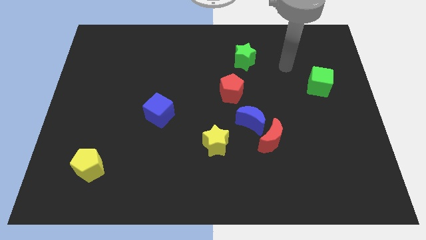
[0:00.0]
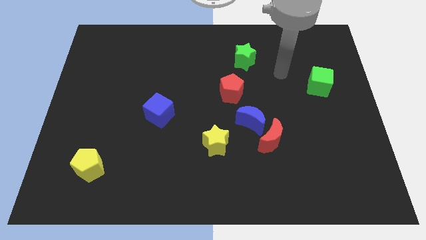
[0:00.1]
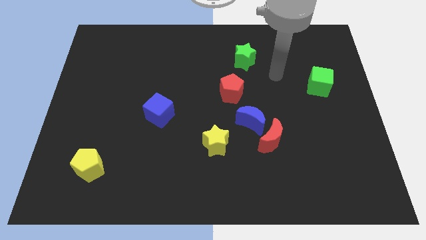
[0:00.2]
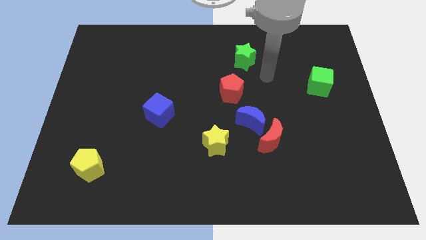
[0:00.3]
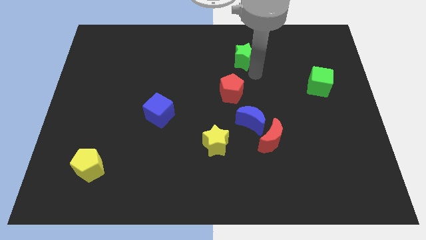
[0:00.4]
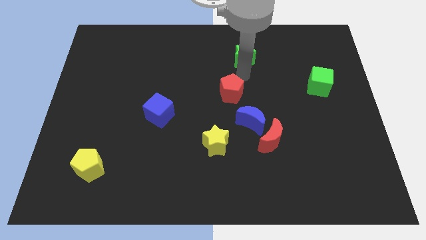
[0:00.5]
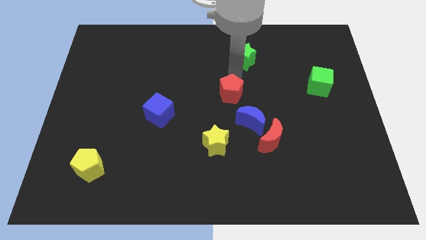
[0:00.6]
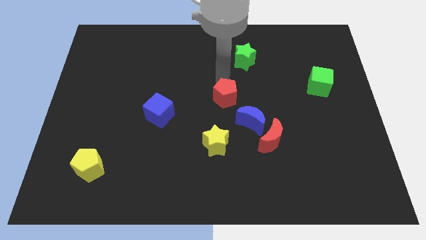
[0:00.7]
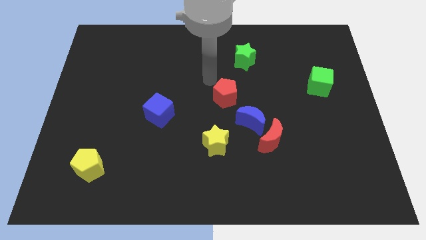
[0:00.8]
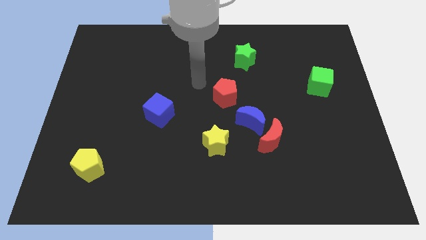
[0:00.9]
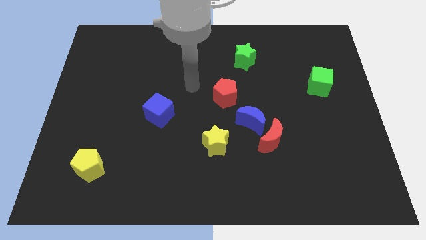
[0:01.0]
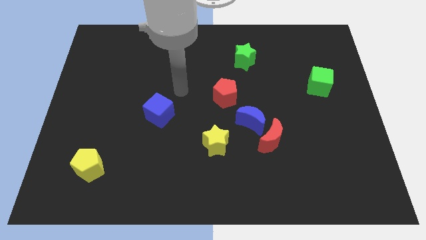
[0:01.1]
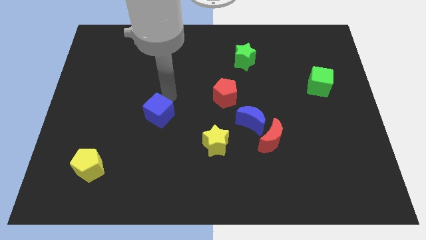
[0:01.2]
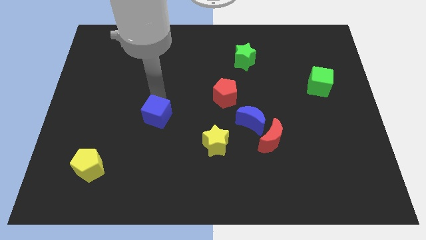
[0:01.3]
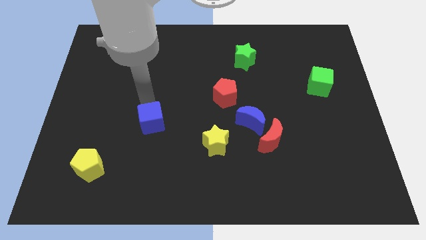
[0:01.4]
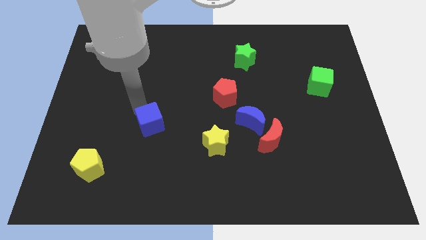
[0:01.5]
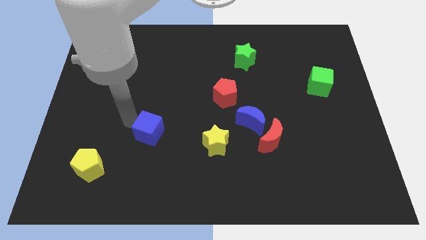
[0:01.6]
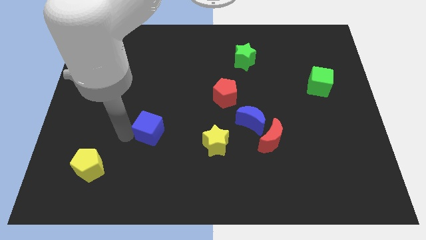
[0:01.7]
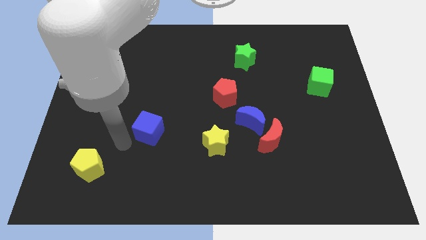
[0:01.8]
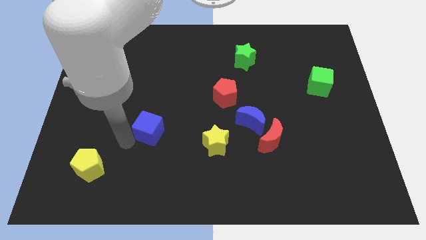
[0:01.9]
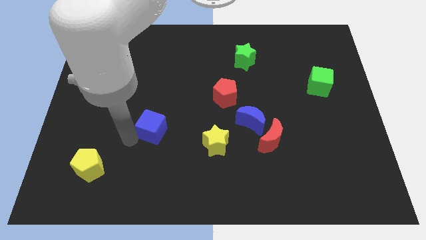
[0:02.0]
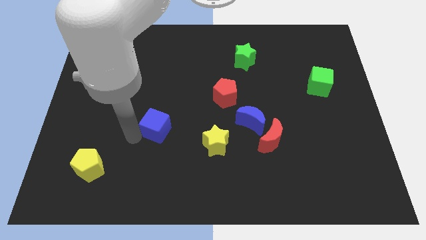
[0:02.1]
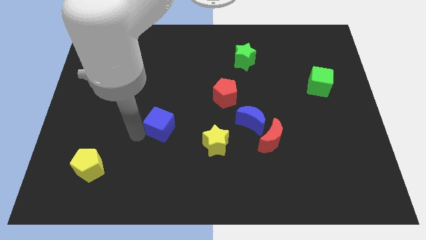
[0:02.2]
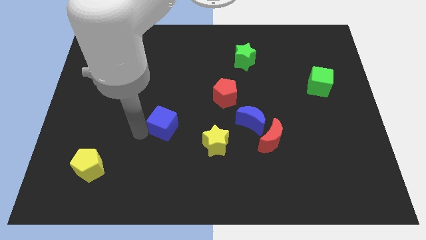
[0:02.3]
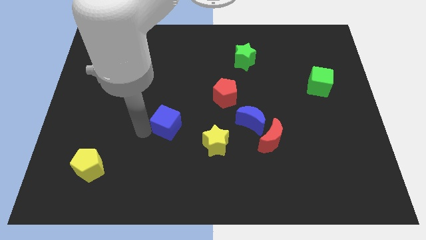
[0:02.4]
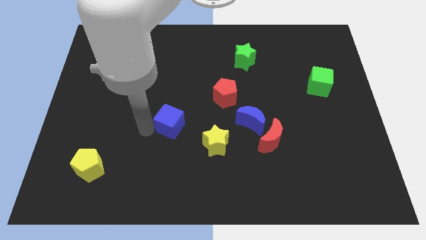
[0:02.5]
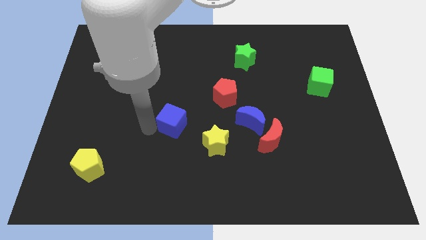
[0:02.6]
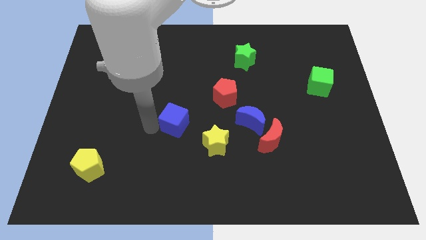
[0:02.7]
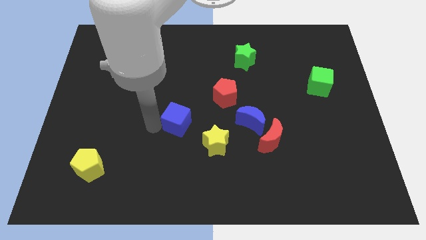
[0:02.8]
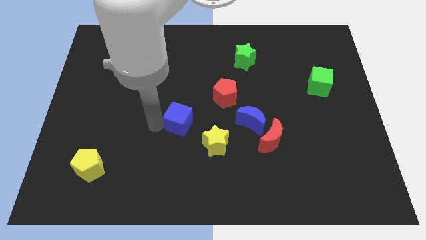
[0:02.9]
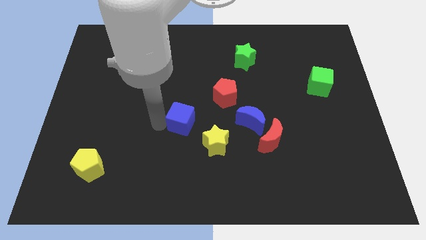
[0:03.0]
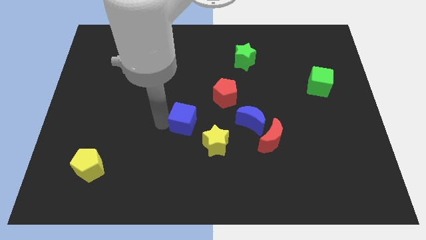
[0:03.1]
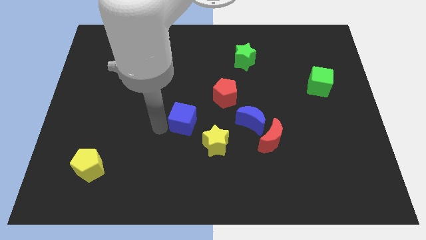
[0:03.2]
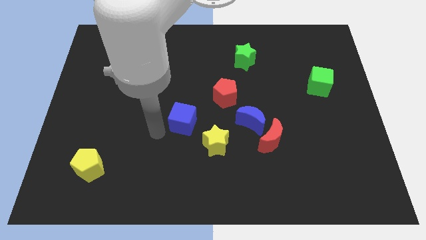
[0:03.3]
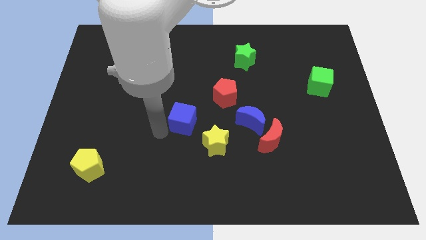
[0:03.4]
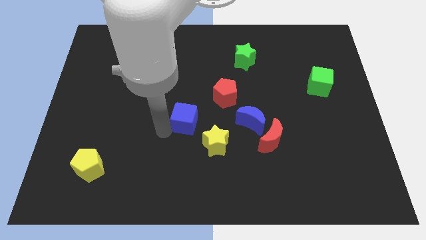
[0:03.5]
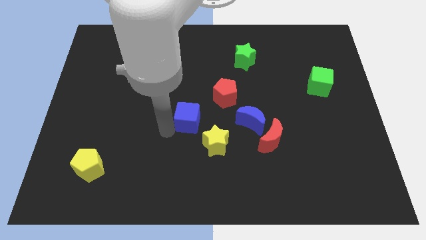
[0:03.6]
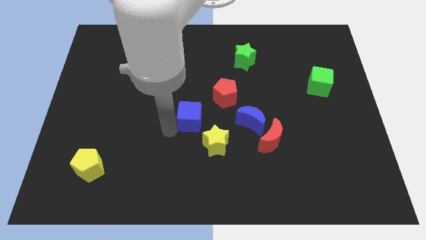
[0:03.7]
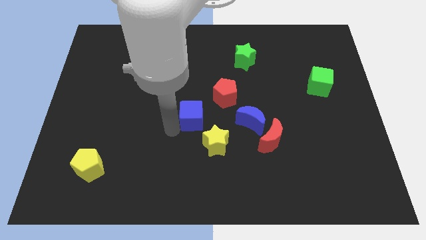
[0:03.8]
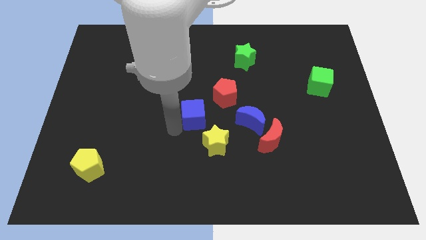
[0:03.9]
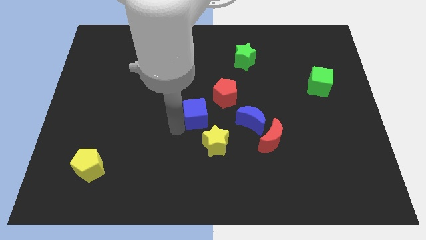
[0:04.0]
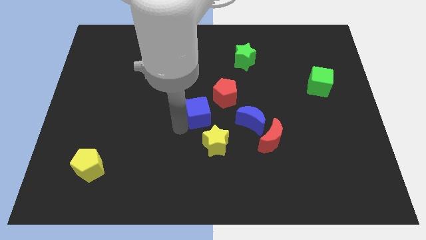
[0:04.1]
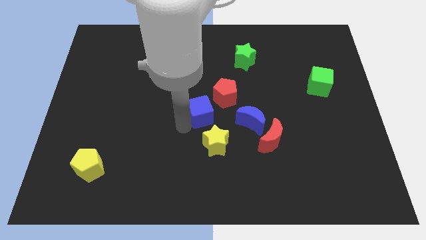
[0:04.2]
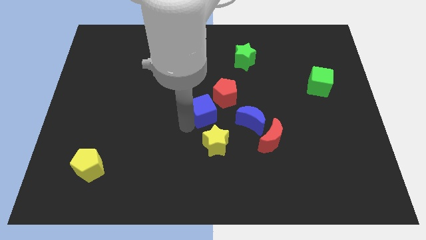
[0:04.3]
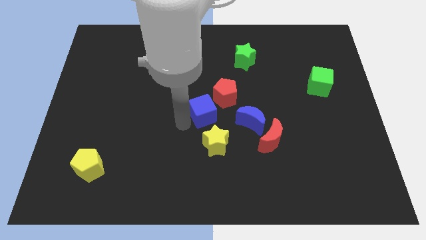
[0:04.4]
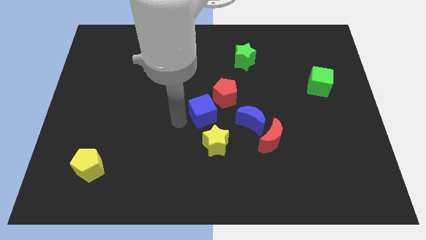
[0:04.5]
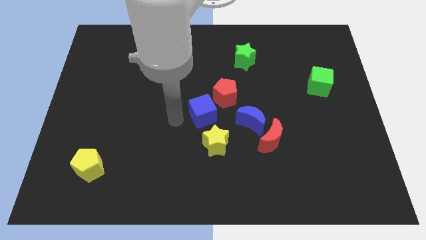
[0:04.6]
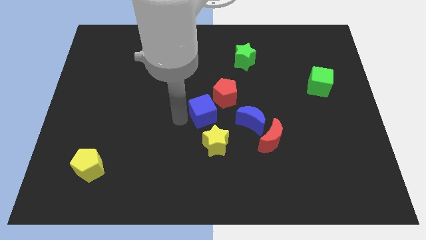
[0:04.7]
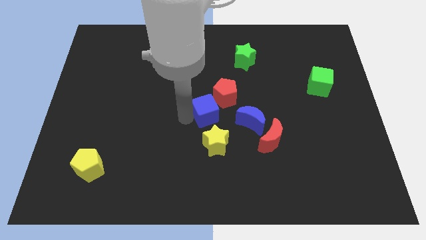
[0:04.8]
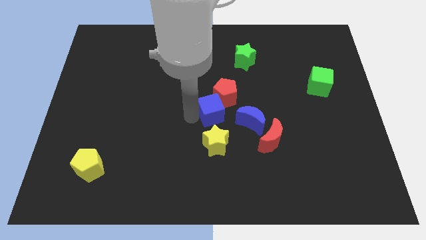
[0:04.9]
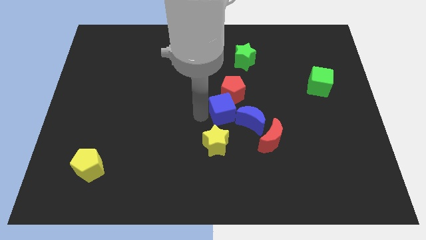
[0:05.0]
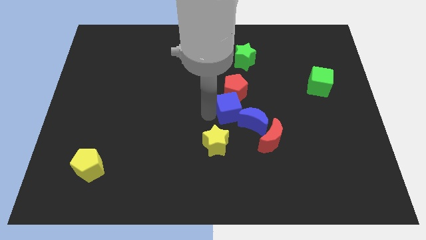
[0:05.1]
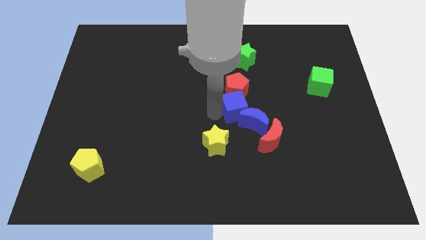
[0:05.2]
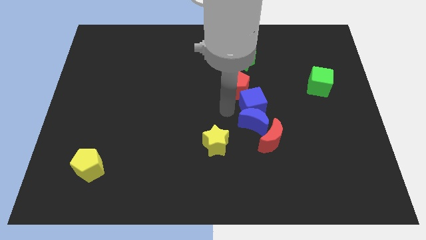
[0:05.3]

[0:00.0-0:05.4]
push the blue cube to the right

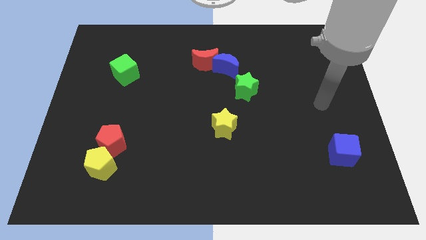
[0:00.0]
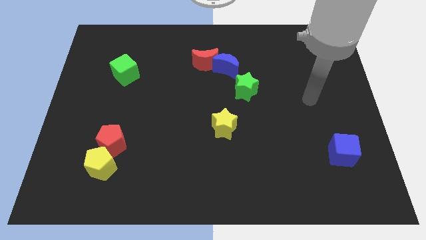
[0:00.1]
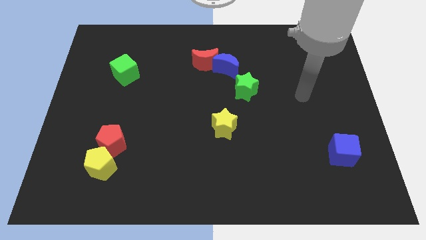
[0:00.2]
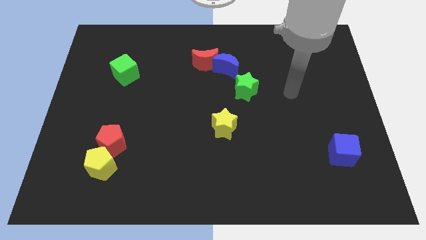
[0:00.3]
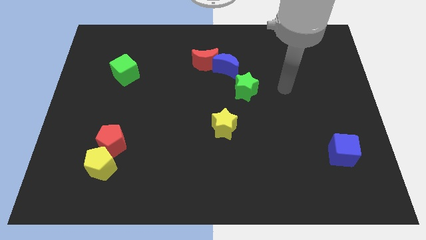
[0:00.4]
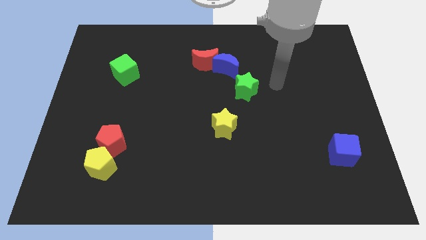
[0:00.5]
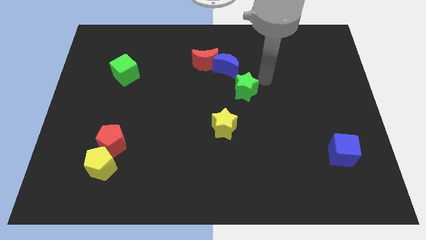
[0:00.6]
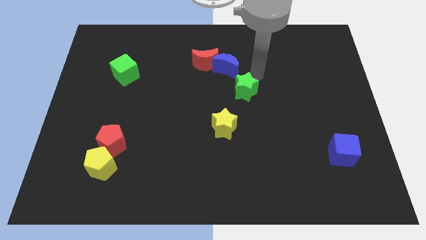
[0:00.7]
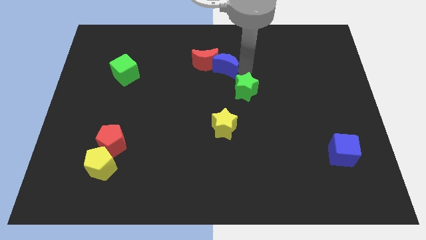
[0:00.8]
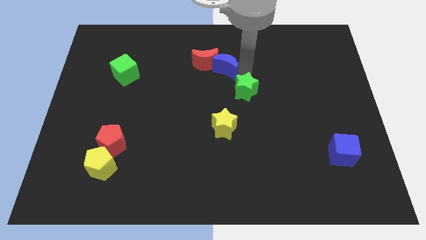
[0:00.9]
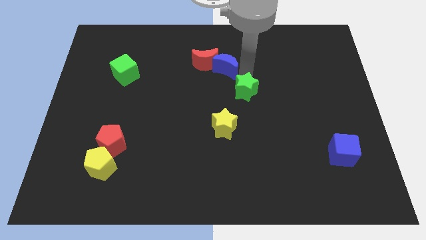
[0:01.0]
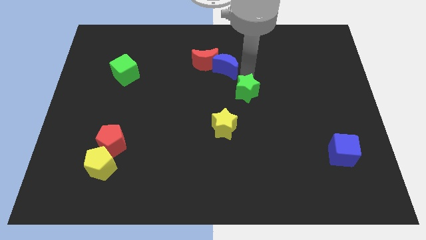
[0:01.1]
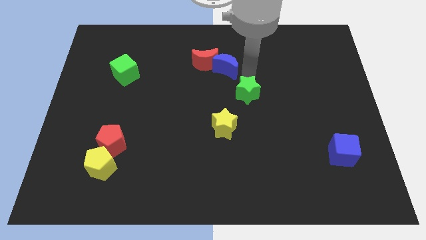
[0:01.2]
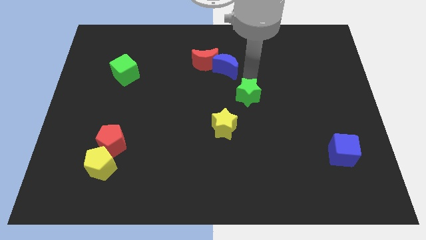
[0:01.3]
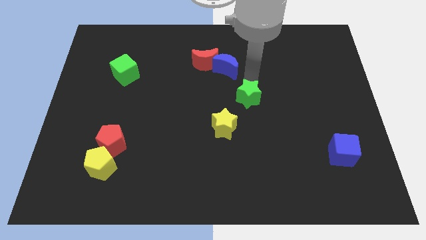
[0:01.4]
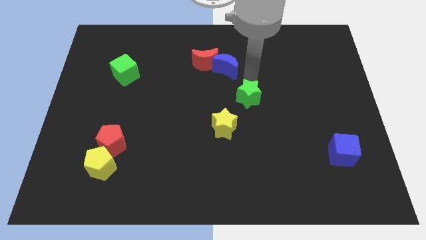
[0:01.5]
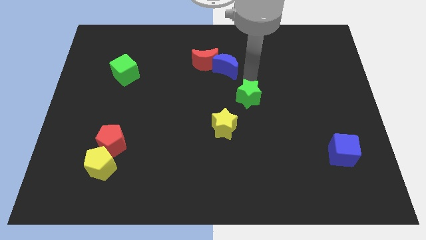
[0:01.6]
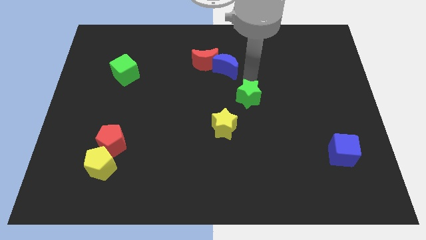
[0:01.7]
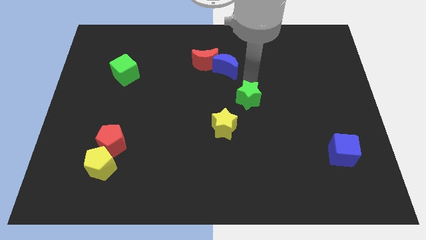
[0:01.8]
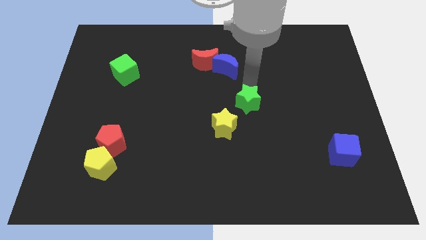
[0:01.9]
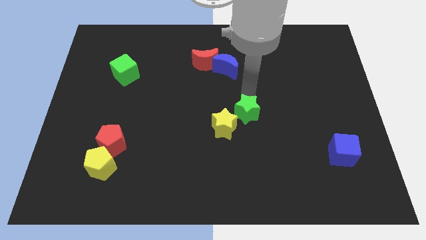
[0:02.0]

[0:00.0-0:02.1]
push the green star down a little bit

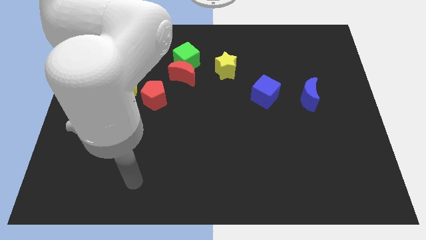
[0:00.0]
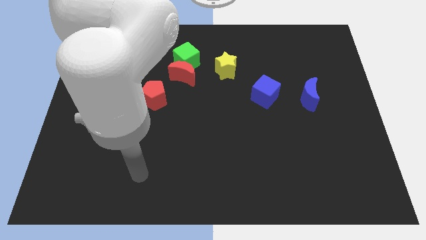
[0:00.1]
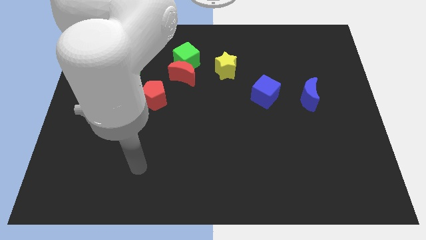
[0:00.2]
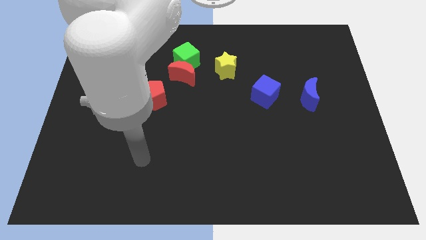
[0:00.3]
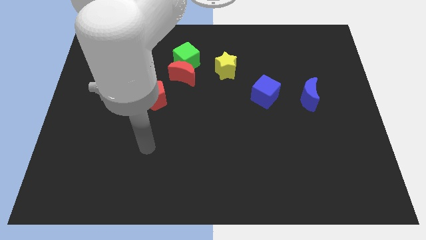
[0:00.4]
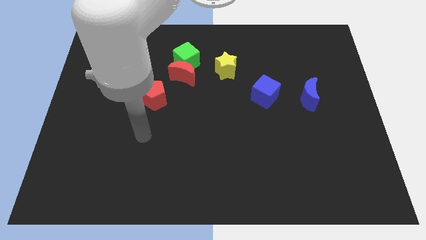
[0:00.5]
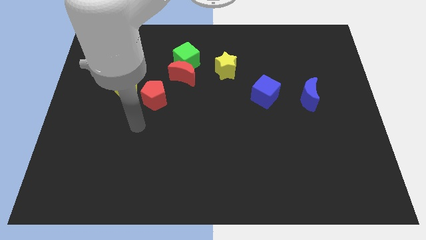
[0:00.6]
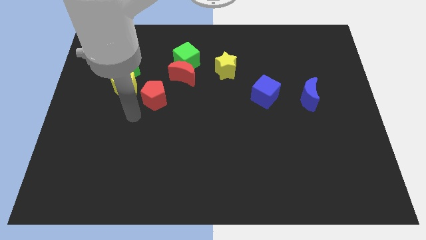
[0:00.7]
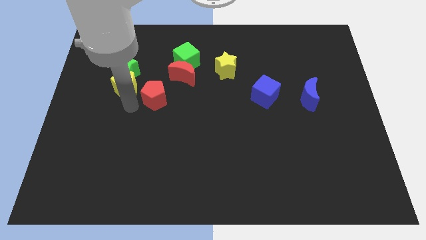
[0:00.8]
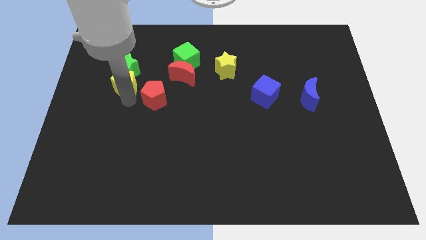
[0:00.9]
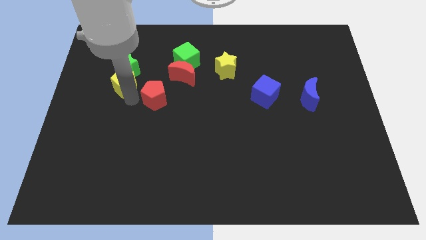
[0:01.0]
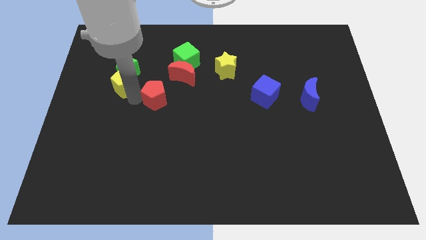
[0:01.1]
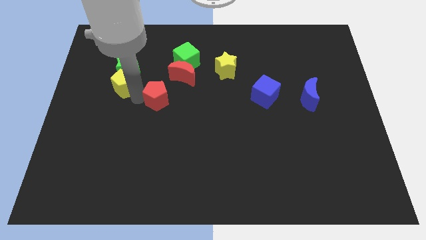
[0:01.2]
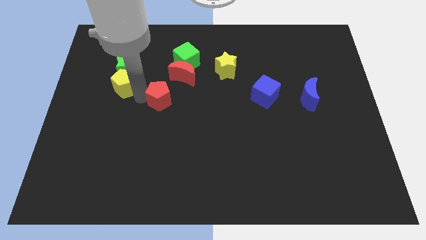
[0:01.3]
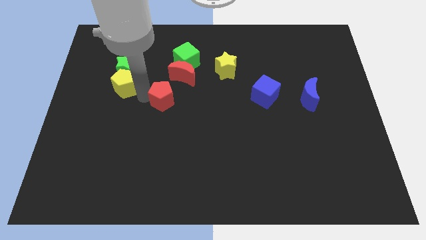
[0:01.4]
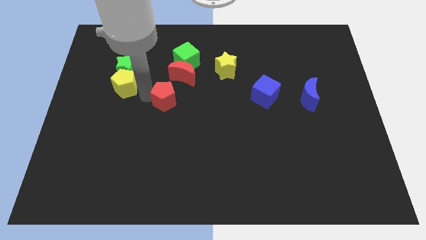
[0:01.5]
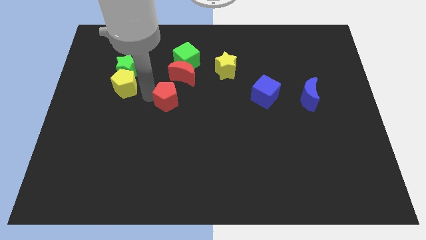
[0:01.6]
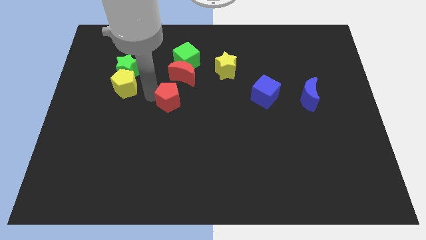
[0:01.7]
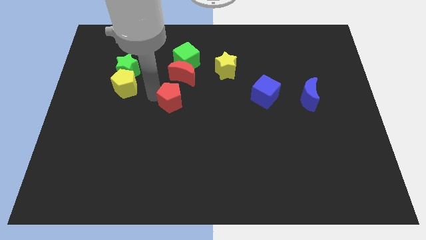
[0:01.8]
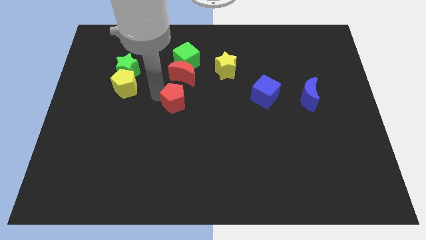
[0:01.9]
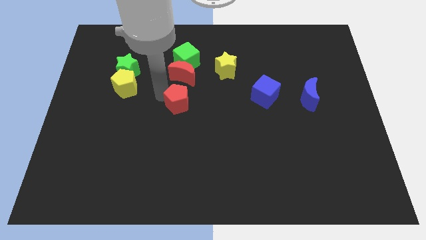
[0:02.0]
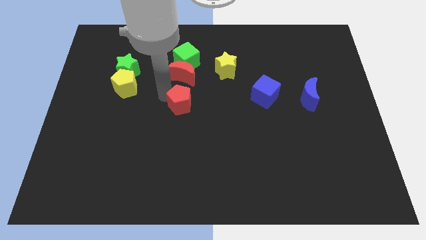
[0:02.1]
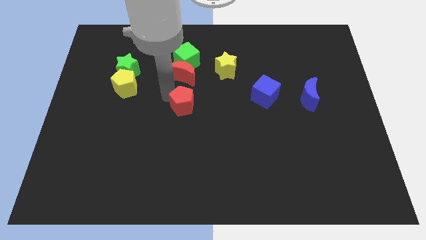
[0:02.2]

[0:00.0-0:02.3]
move the red pentagon a little bit to the right
